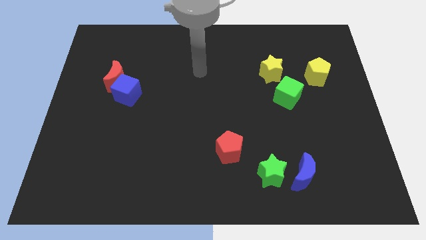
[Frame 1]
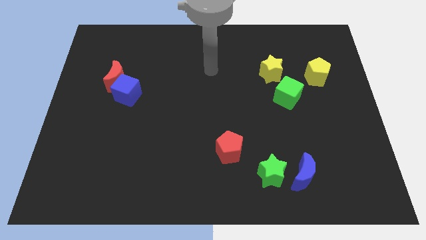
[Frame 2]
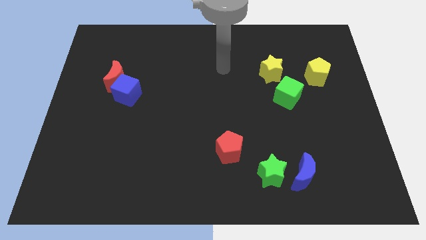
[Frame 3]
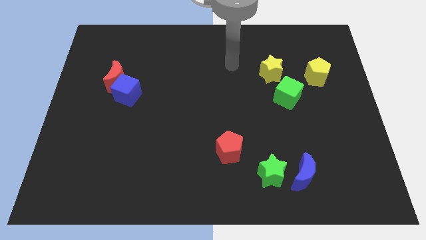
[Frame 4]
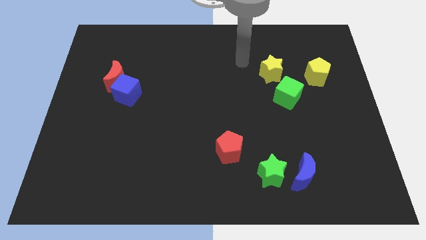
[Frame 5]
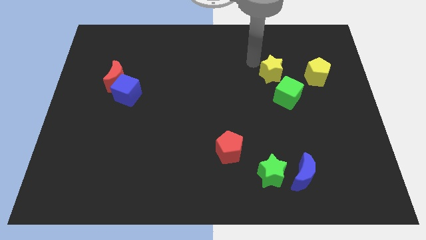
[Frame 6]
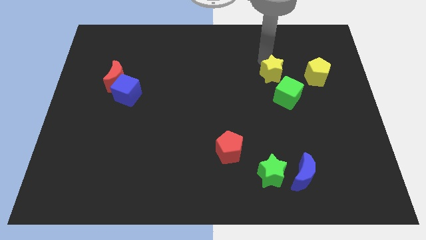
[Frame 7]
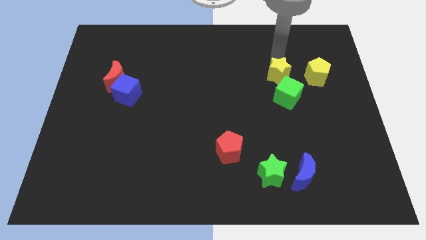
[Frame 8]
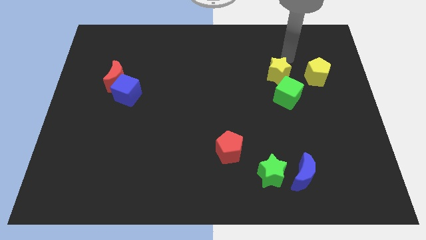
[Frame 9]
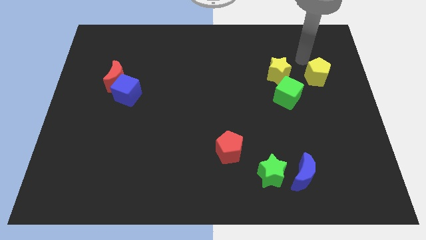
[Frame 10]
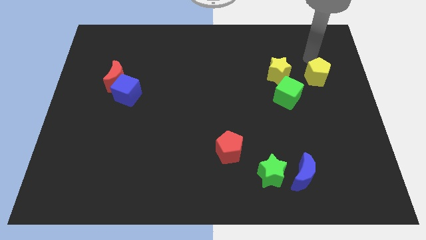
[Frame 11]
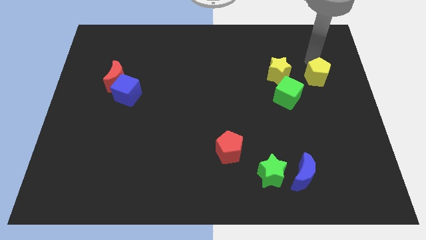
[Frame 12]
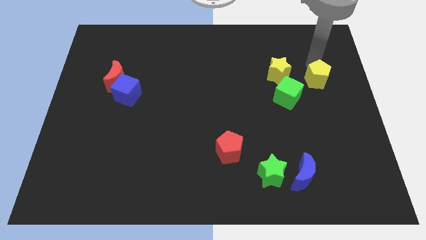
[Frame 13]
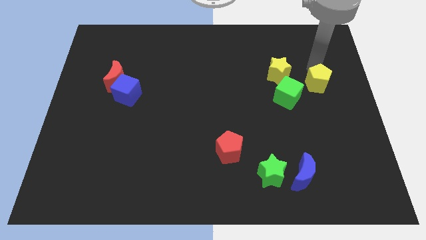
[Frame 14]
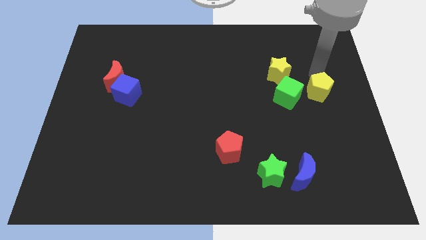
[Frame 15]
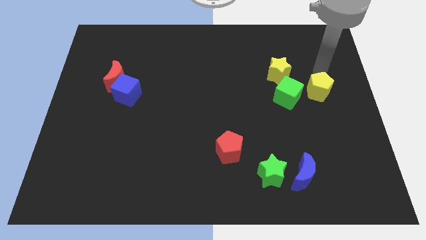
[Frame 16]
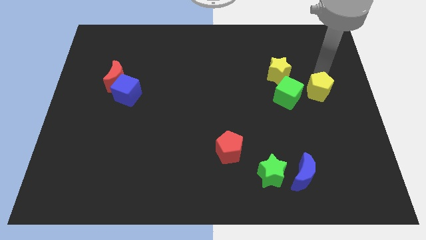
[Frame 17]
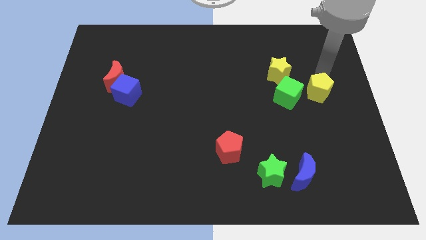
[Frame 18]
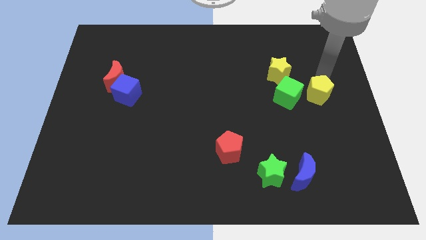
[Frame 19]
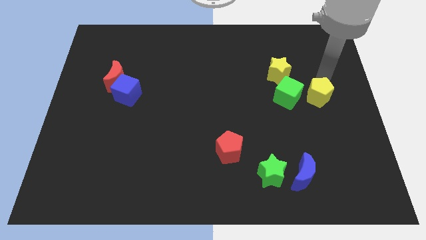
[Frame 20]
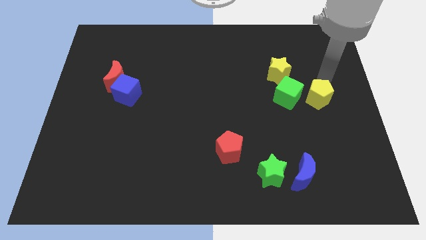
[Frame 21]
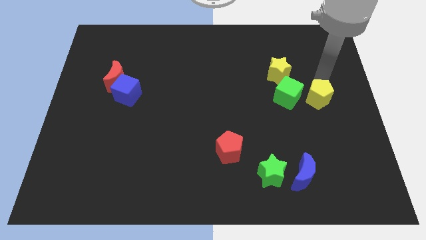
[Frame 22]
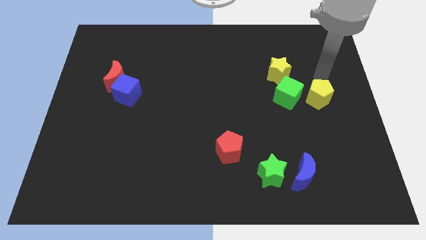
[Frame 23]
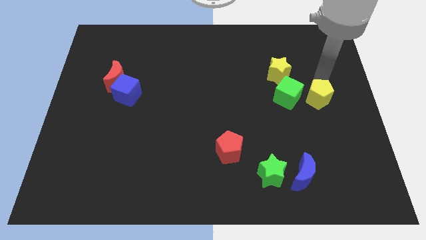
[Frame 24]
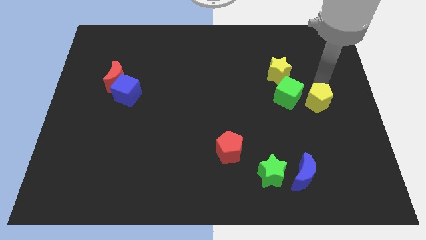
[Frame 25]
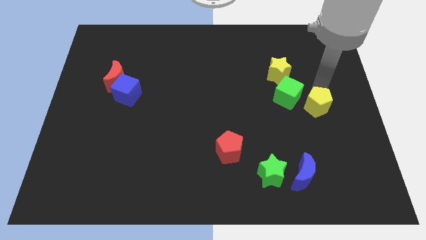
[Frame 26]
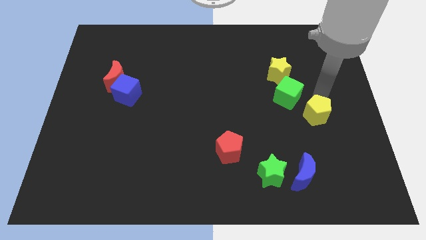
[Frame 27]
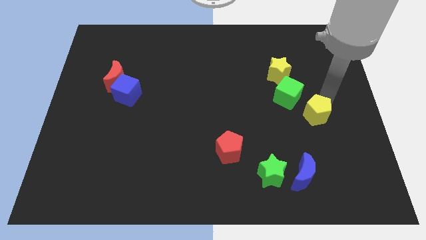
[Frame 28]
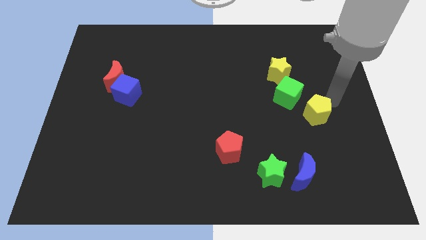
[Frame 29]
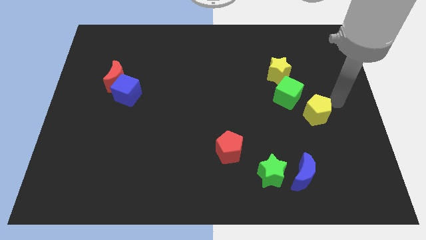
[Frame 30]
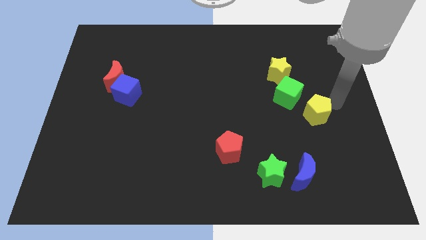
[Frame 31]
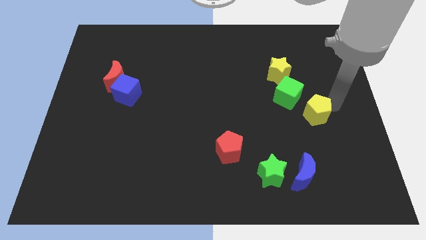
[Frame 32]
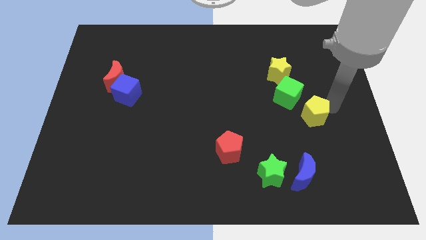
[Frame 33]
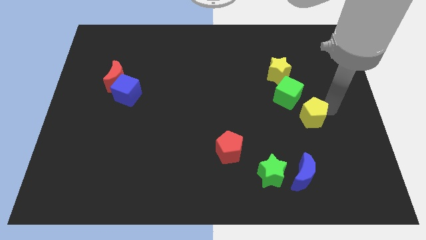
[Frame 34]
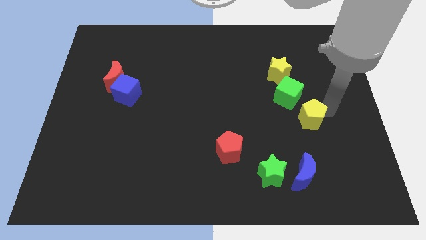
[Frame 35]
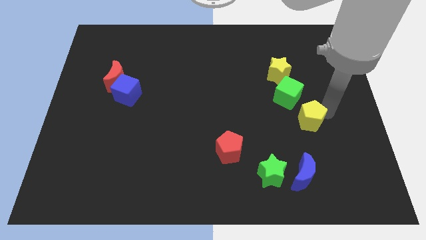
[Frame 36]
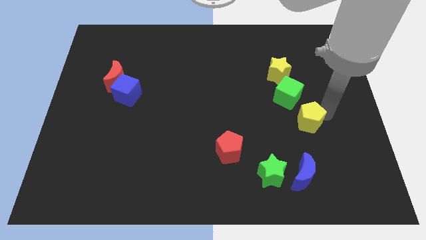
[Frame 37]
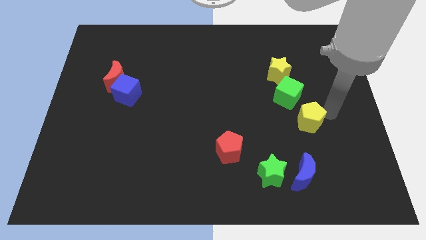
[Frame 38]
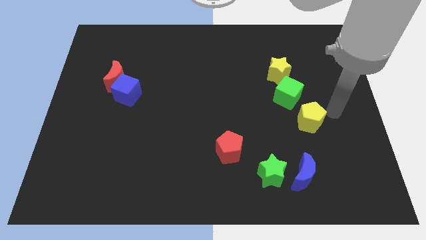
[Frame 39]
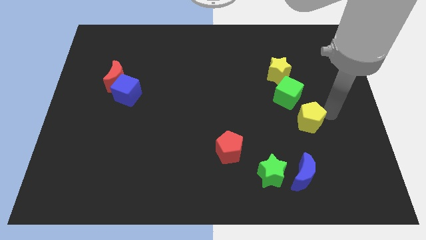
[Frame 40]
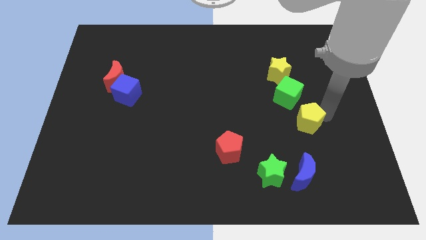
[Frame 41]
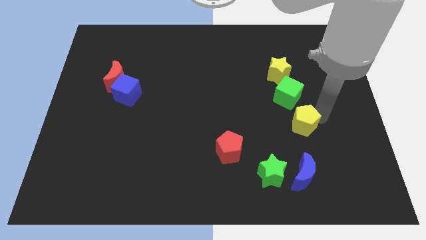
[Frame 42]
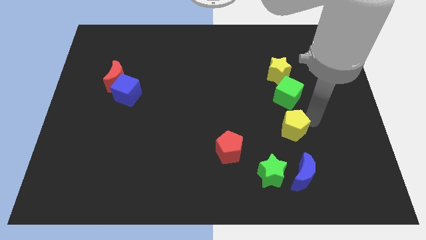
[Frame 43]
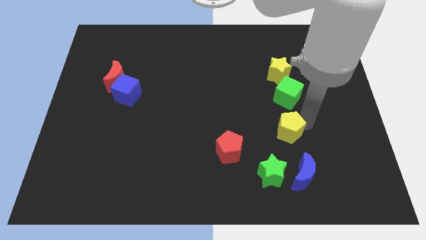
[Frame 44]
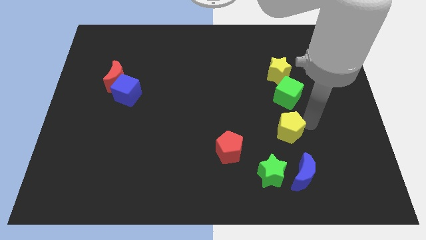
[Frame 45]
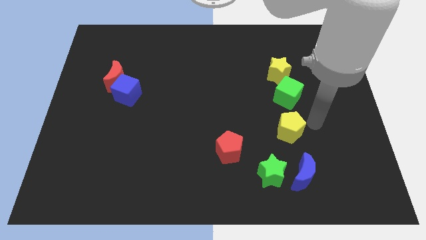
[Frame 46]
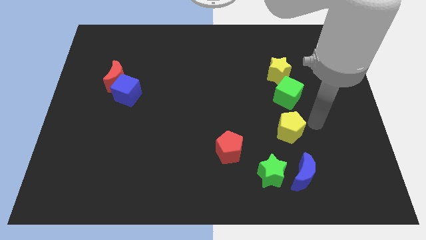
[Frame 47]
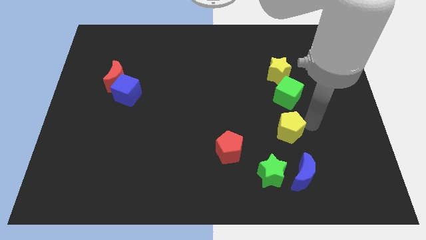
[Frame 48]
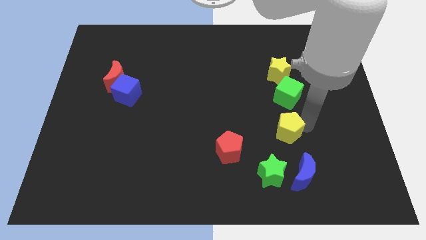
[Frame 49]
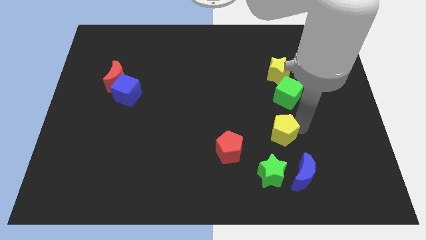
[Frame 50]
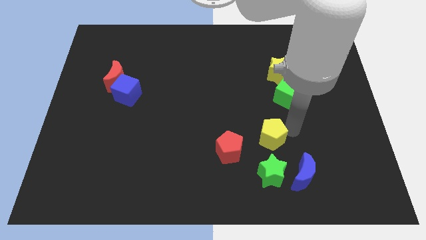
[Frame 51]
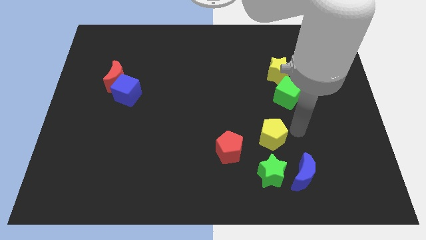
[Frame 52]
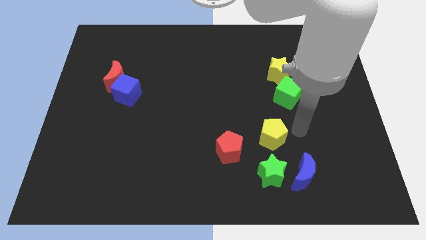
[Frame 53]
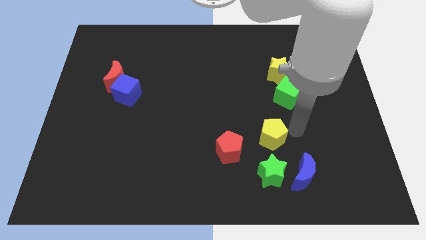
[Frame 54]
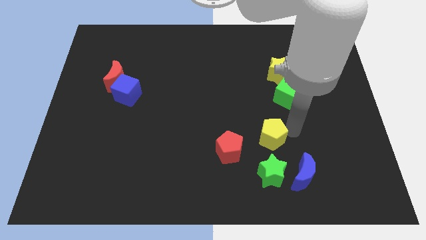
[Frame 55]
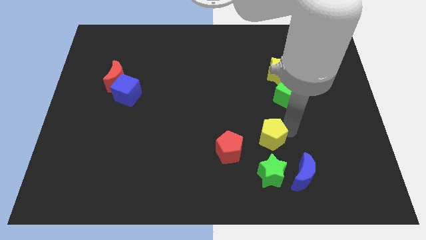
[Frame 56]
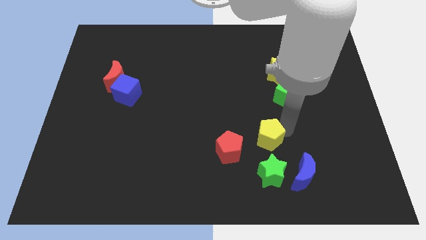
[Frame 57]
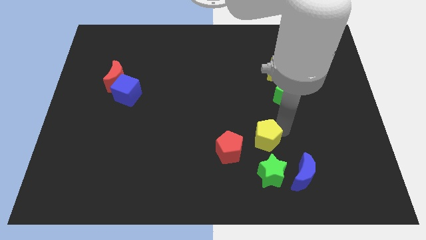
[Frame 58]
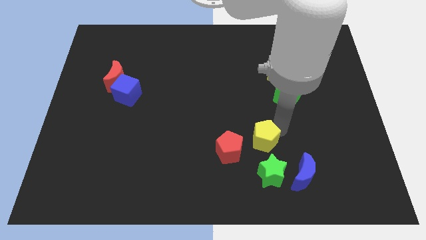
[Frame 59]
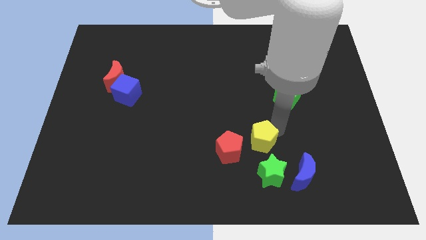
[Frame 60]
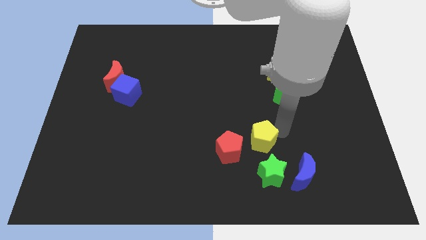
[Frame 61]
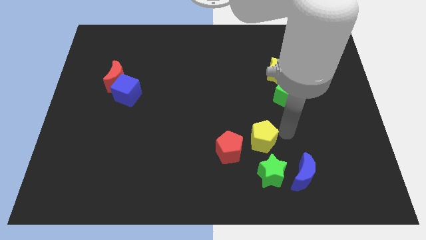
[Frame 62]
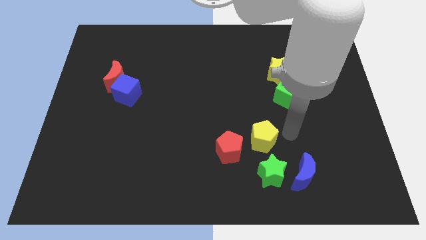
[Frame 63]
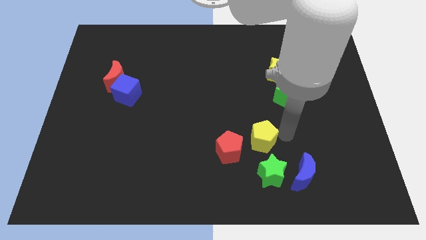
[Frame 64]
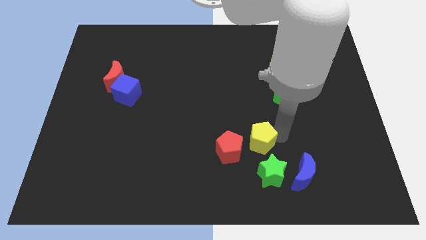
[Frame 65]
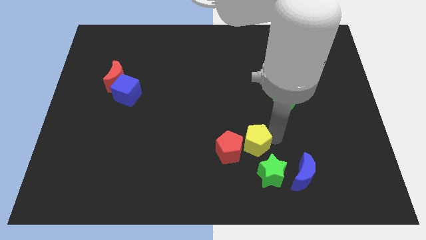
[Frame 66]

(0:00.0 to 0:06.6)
push the yellow pentagon to the red pentagon

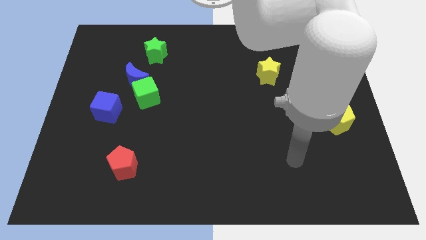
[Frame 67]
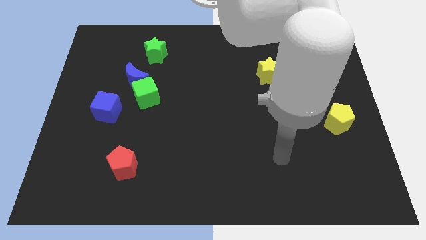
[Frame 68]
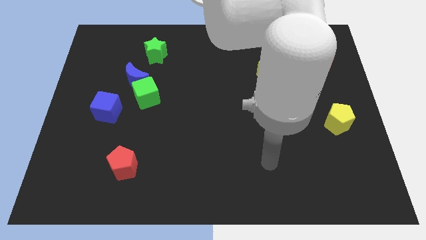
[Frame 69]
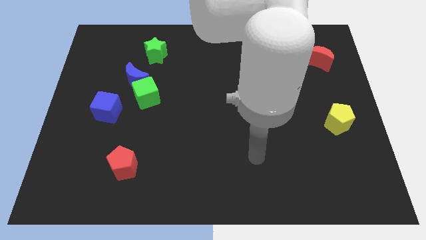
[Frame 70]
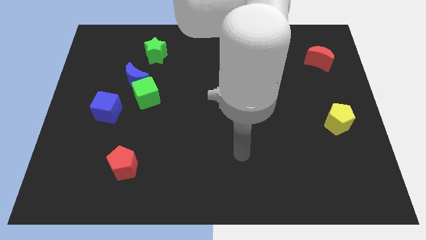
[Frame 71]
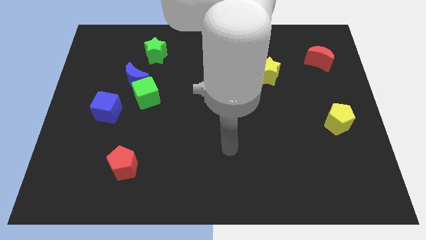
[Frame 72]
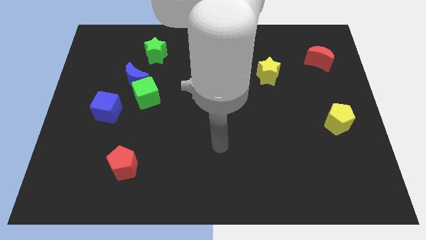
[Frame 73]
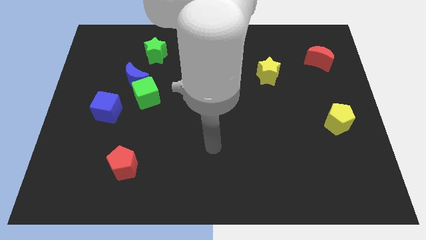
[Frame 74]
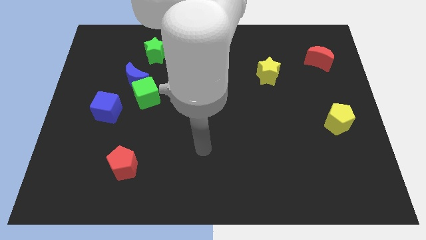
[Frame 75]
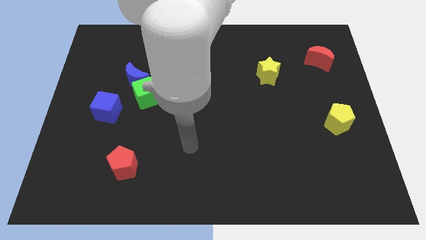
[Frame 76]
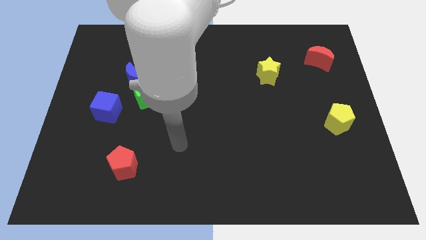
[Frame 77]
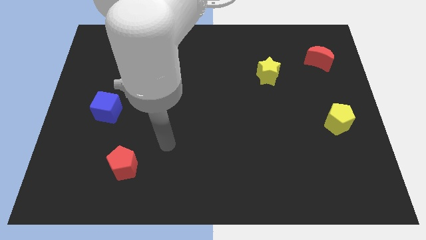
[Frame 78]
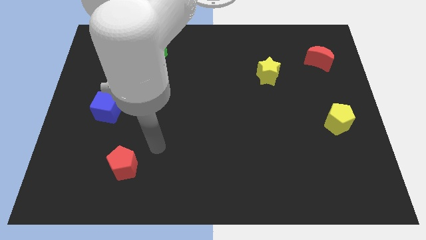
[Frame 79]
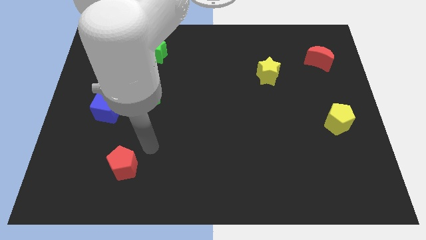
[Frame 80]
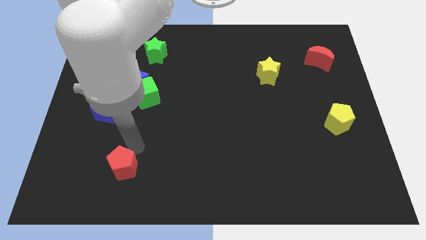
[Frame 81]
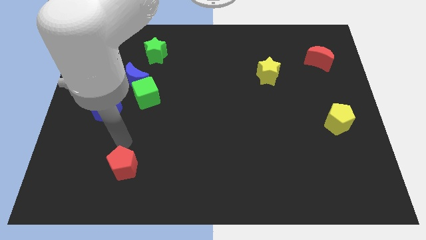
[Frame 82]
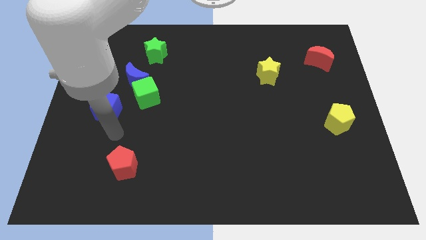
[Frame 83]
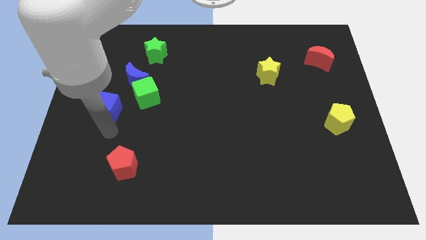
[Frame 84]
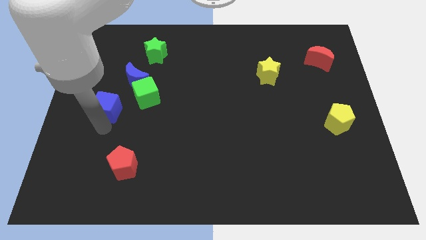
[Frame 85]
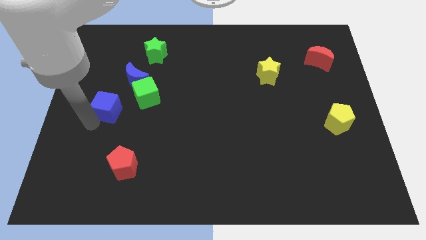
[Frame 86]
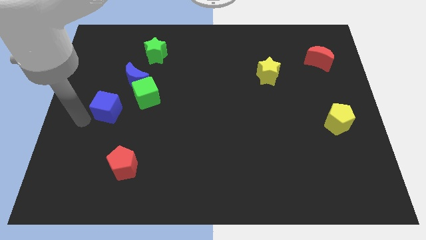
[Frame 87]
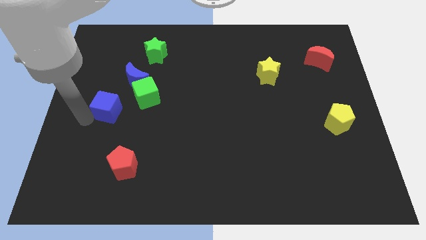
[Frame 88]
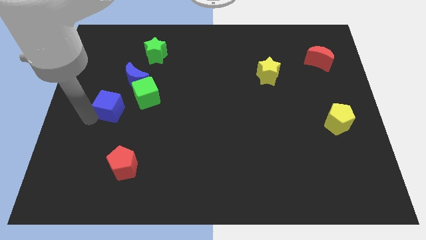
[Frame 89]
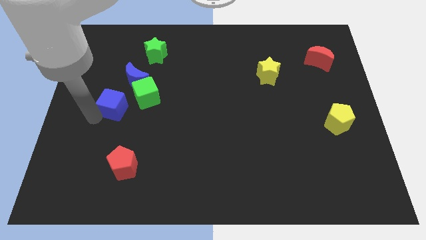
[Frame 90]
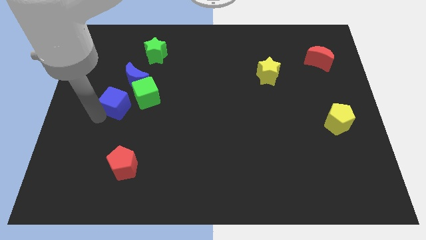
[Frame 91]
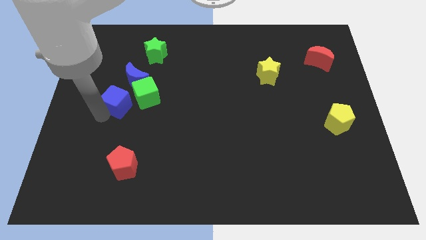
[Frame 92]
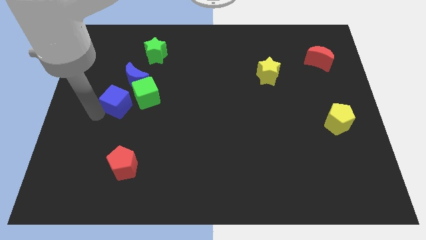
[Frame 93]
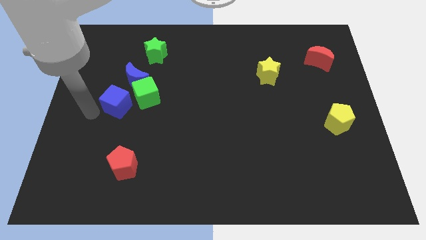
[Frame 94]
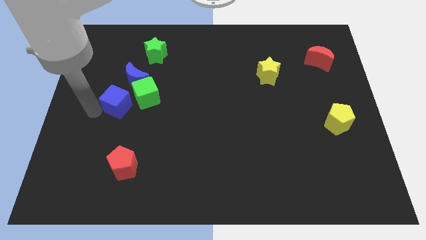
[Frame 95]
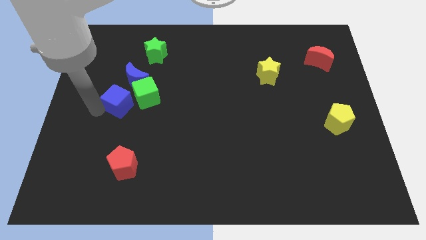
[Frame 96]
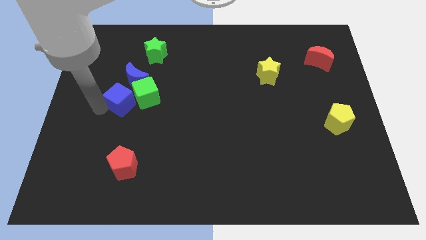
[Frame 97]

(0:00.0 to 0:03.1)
push the blue cube next to the green cube
